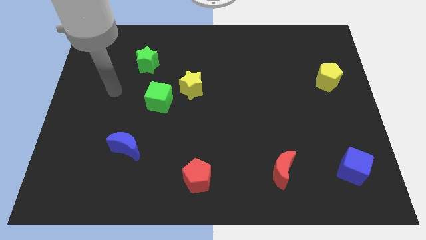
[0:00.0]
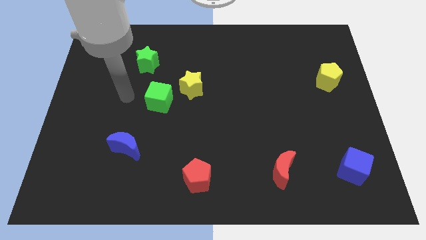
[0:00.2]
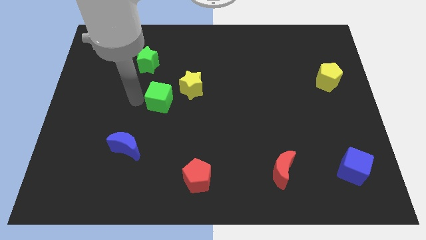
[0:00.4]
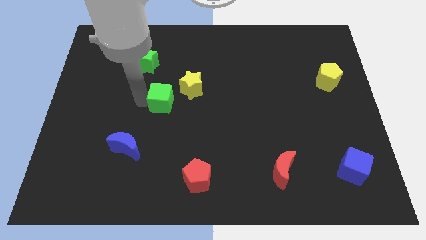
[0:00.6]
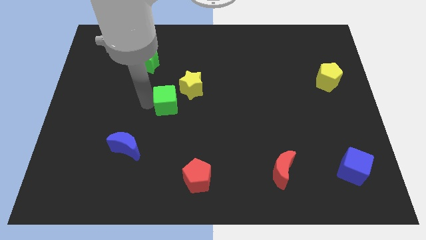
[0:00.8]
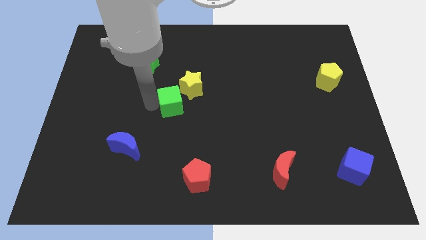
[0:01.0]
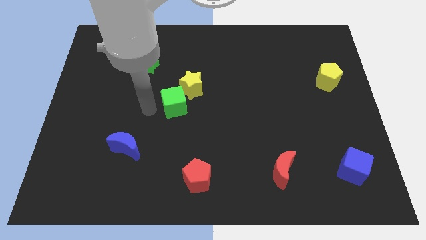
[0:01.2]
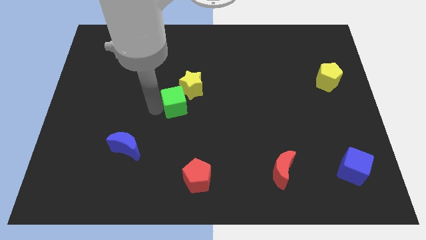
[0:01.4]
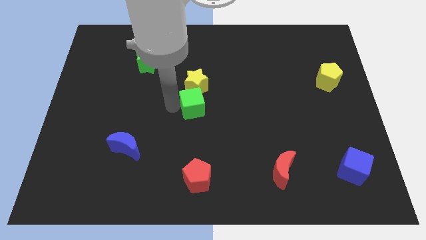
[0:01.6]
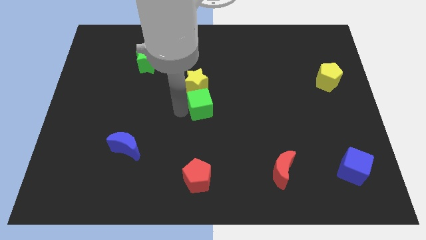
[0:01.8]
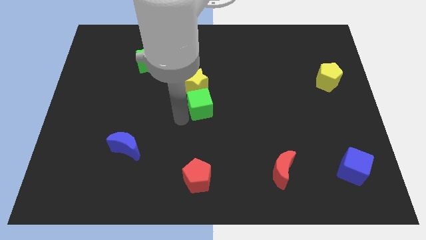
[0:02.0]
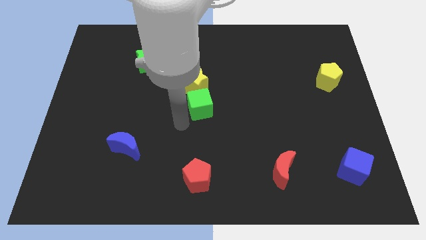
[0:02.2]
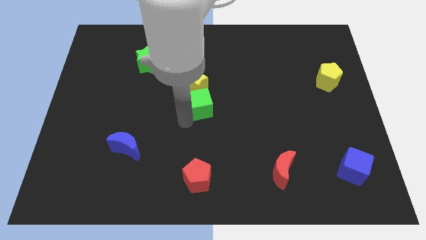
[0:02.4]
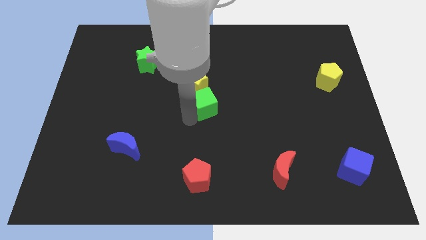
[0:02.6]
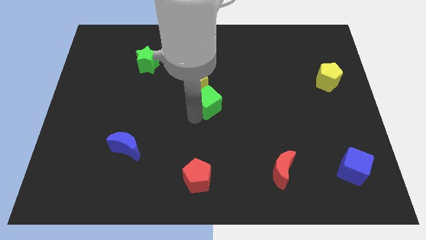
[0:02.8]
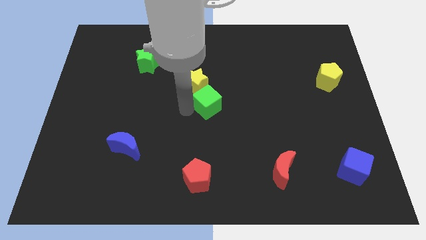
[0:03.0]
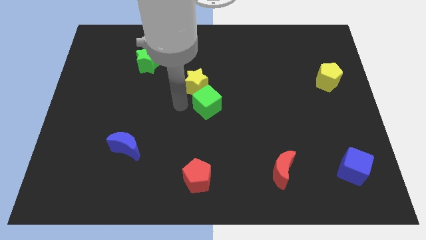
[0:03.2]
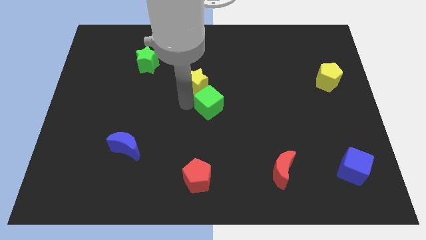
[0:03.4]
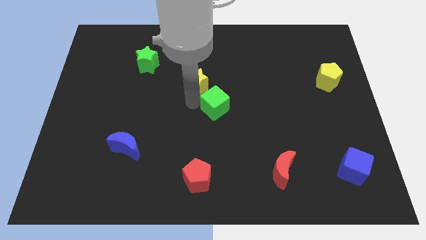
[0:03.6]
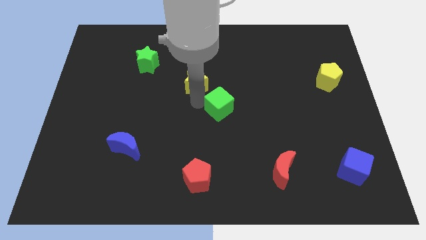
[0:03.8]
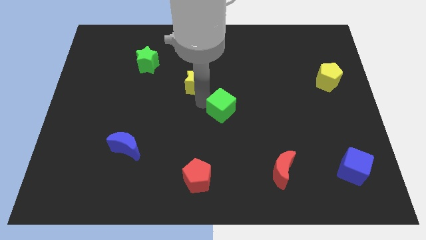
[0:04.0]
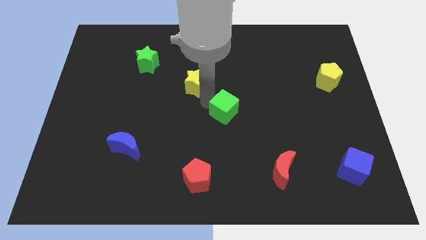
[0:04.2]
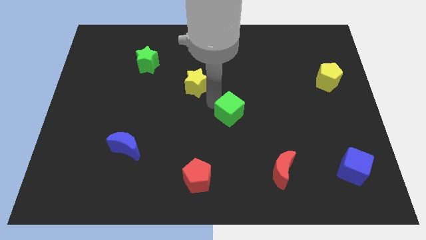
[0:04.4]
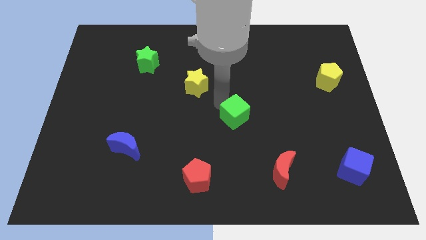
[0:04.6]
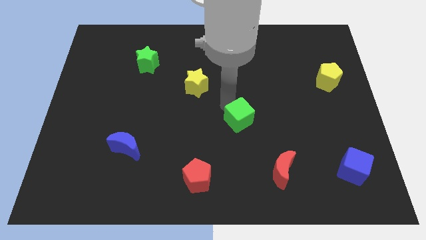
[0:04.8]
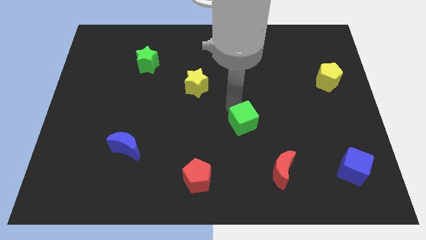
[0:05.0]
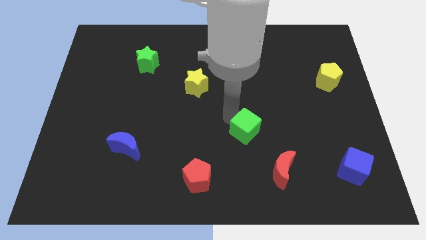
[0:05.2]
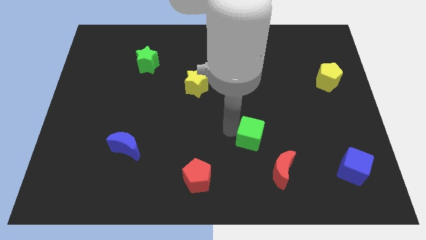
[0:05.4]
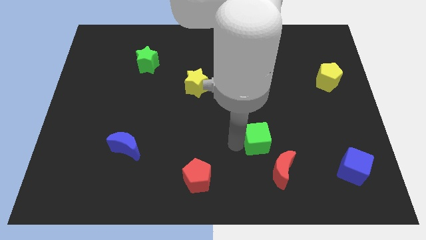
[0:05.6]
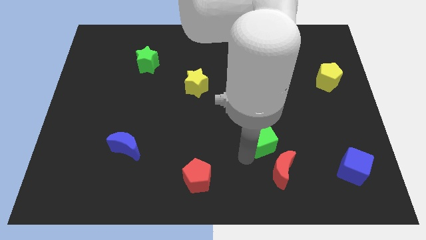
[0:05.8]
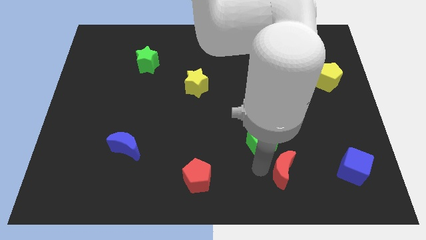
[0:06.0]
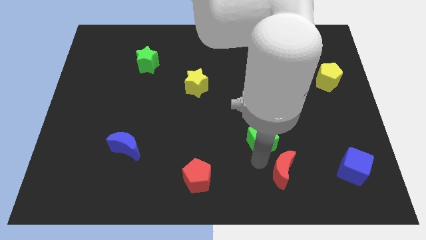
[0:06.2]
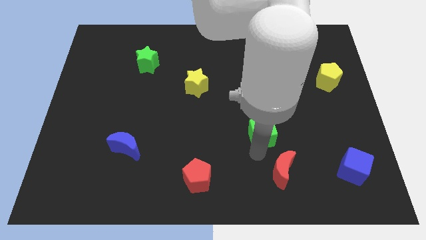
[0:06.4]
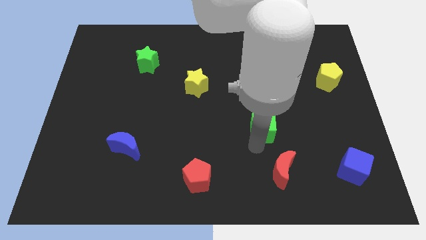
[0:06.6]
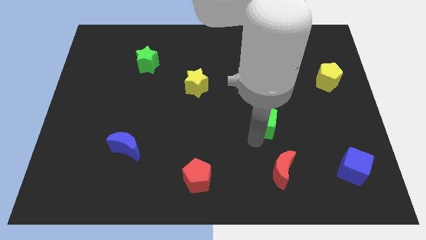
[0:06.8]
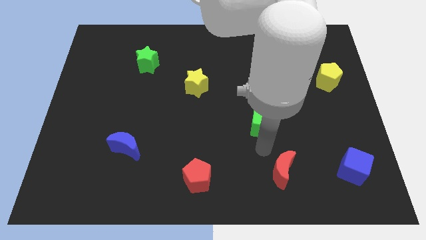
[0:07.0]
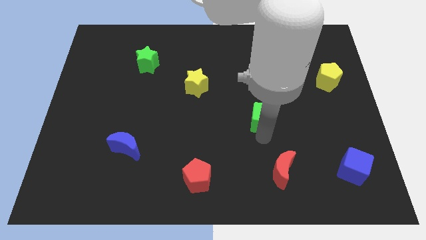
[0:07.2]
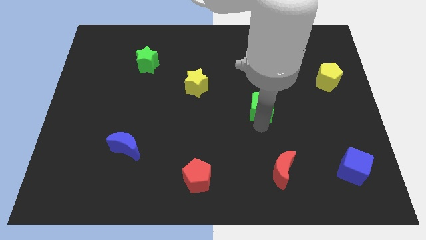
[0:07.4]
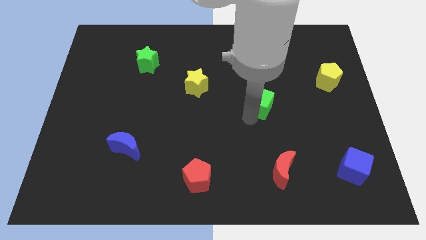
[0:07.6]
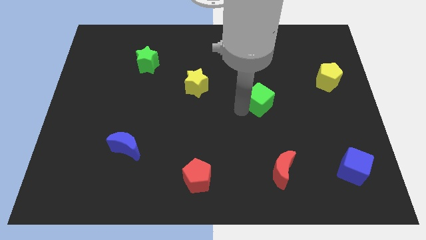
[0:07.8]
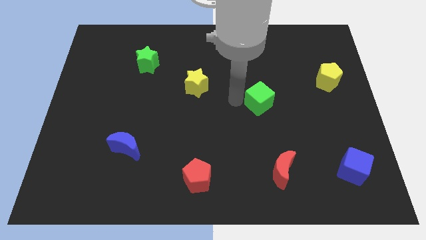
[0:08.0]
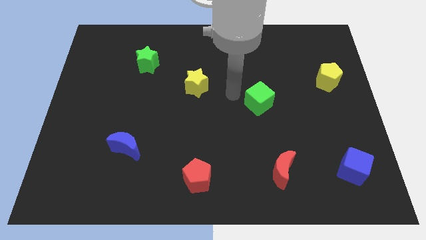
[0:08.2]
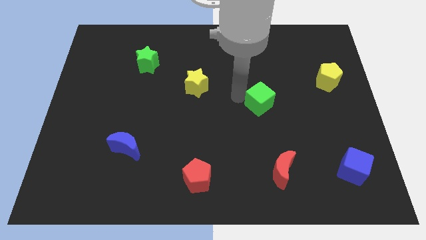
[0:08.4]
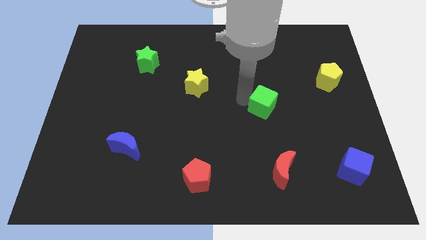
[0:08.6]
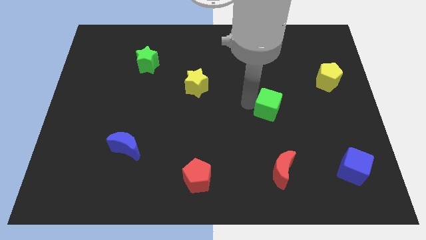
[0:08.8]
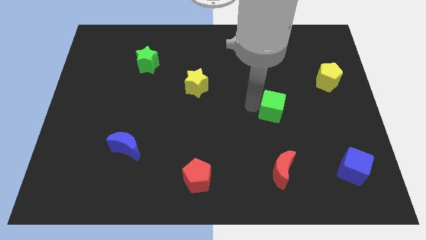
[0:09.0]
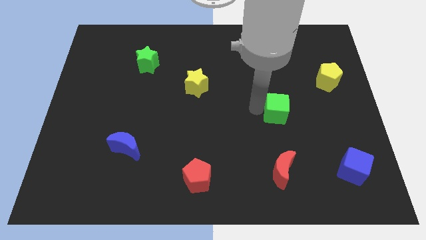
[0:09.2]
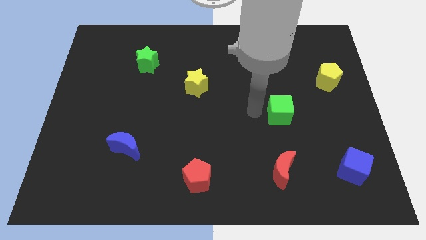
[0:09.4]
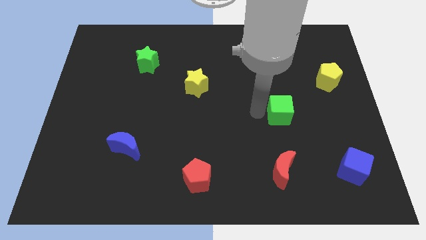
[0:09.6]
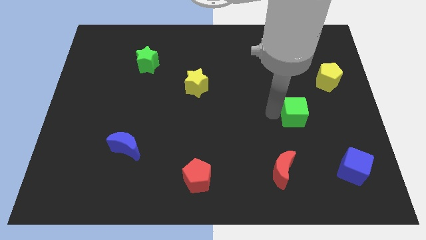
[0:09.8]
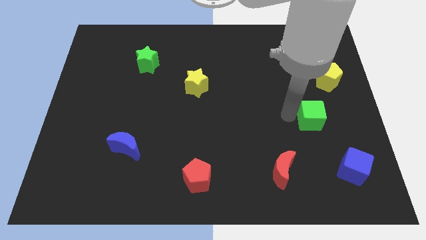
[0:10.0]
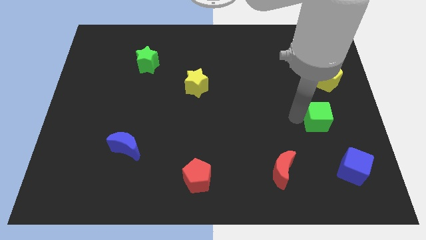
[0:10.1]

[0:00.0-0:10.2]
put the green cube below the yellow pentagon
